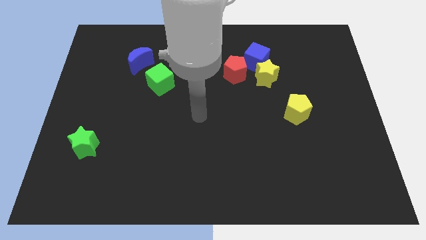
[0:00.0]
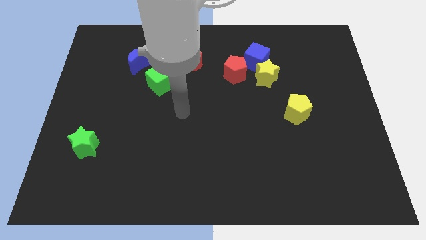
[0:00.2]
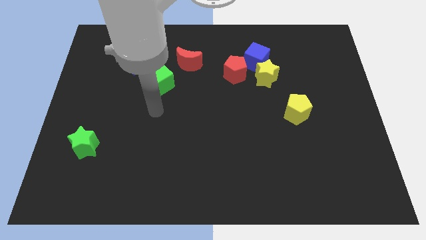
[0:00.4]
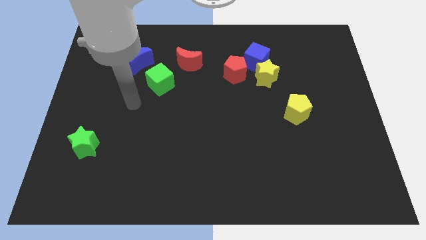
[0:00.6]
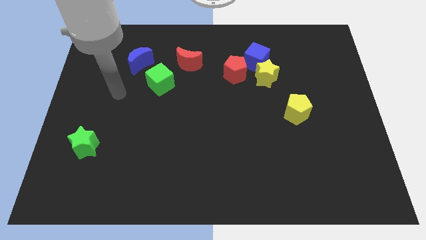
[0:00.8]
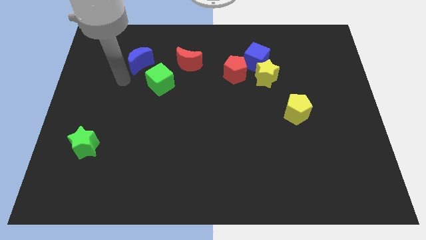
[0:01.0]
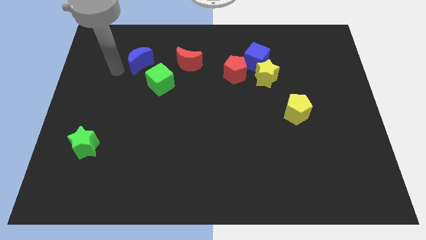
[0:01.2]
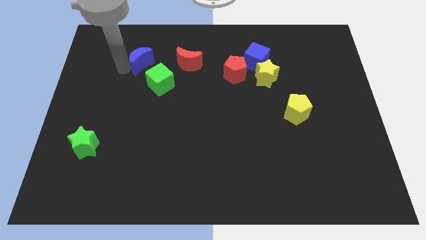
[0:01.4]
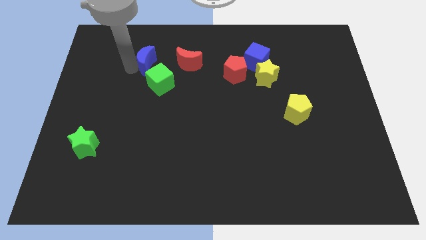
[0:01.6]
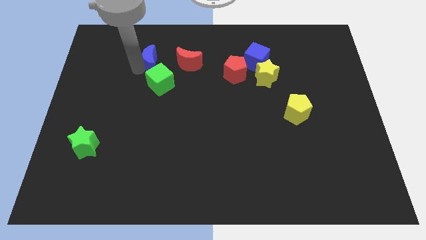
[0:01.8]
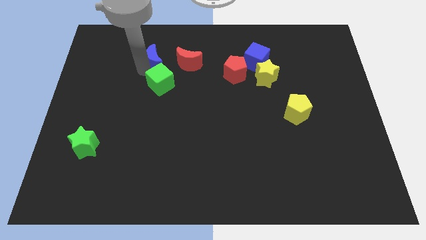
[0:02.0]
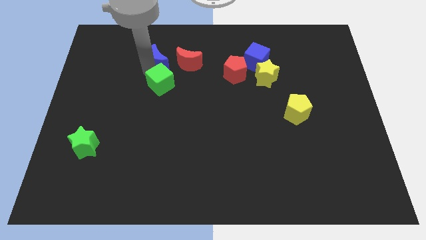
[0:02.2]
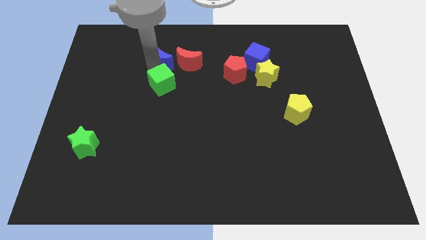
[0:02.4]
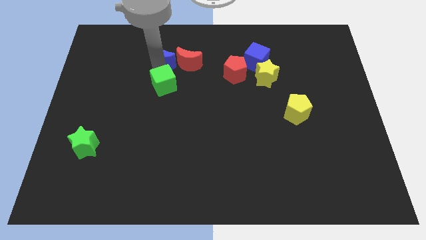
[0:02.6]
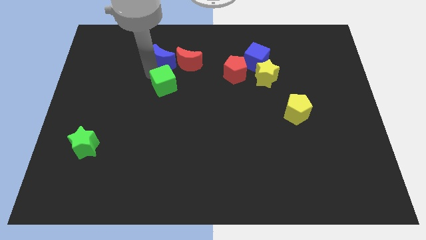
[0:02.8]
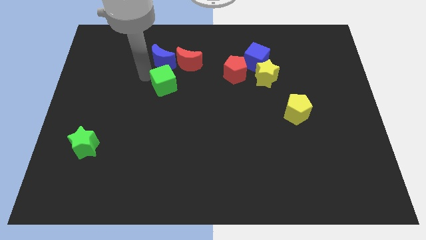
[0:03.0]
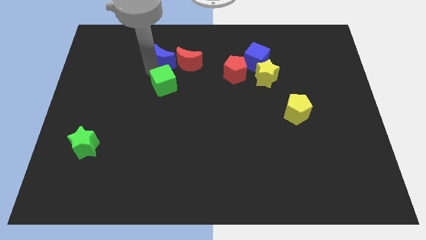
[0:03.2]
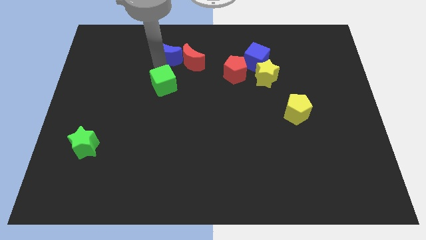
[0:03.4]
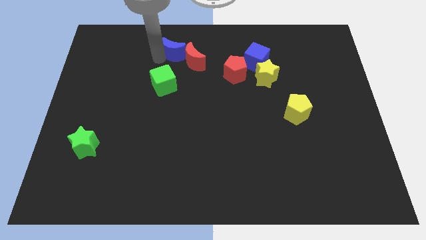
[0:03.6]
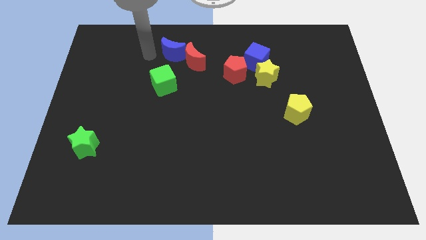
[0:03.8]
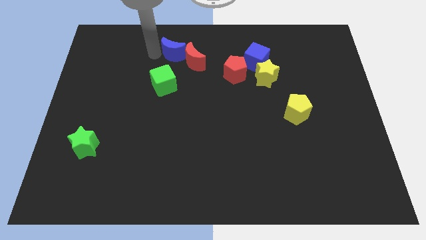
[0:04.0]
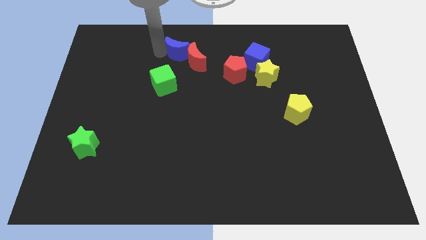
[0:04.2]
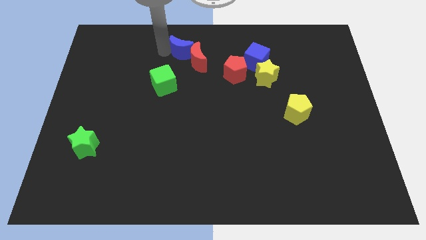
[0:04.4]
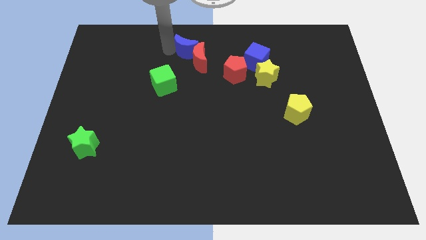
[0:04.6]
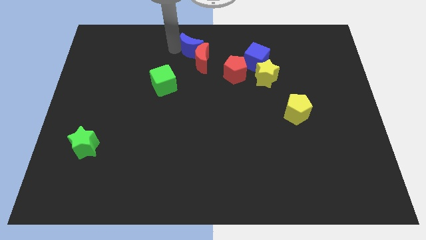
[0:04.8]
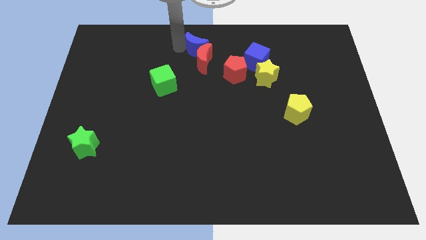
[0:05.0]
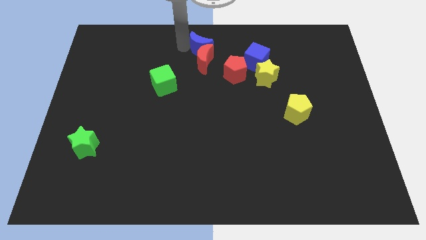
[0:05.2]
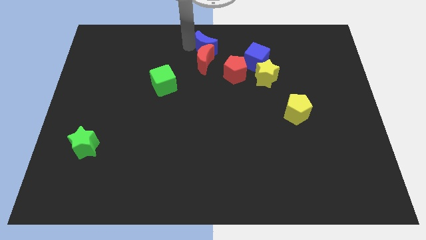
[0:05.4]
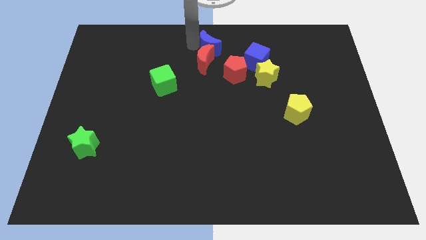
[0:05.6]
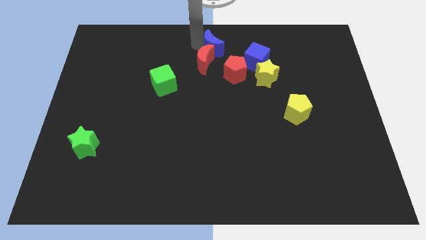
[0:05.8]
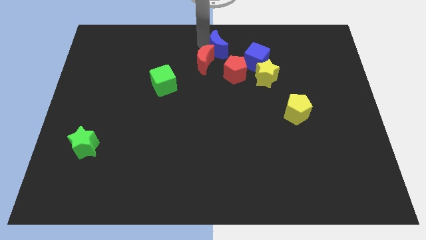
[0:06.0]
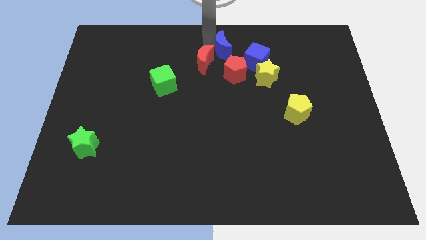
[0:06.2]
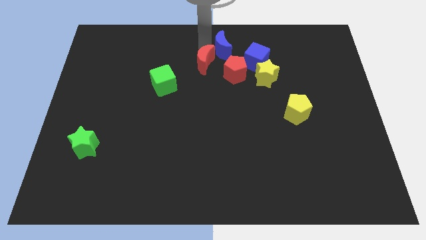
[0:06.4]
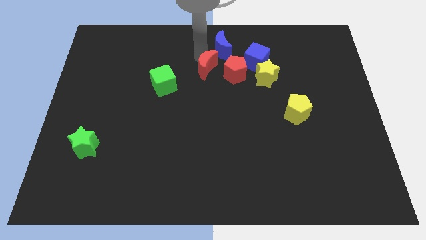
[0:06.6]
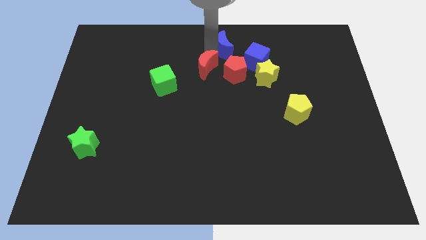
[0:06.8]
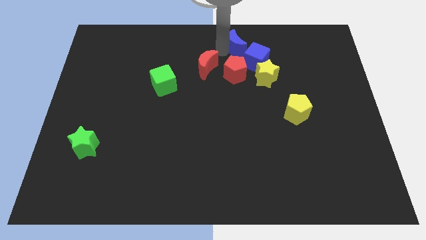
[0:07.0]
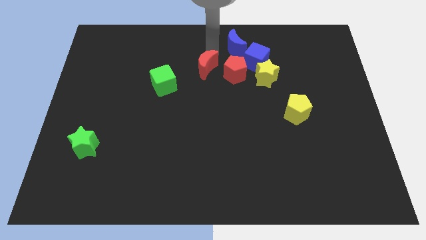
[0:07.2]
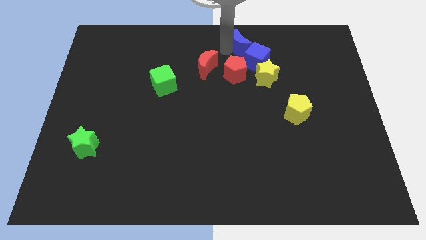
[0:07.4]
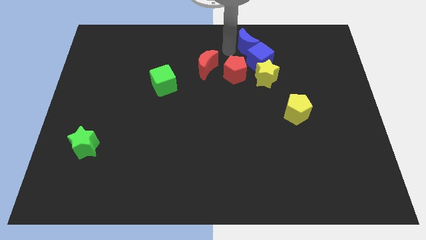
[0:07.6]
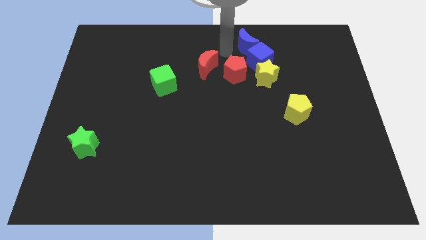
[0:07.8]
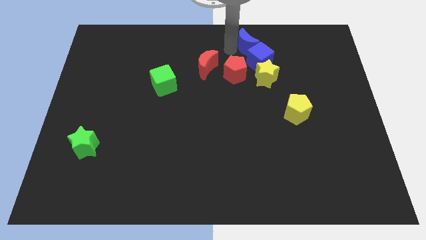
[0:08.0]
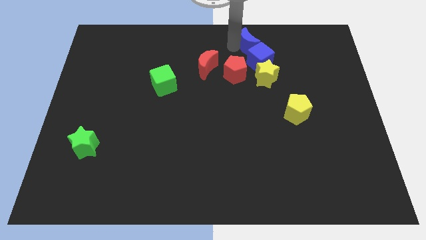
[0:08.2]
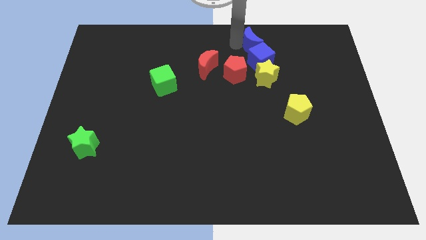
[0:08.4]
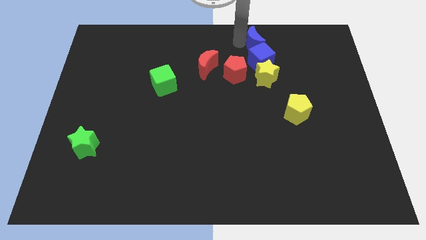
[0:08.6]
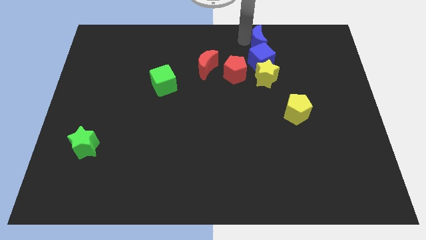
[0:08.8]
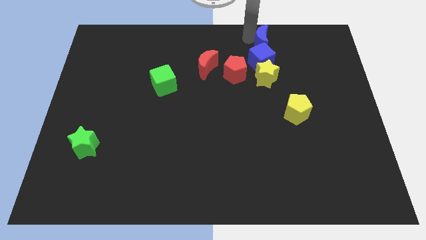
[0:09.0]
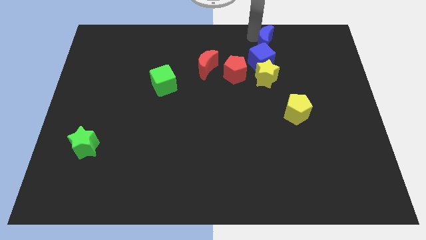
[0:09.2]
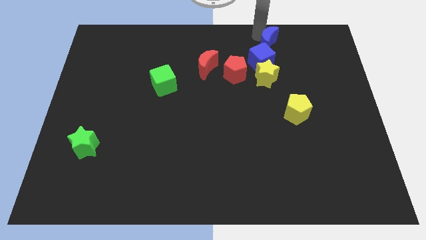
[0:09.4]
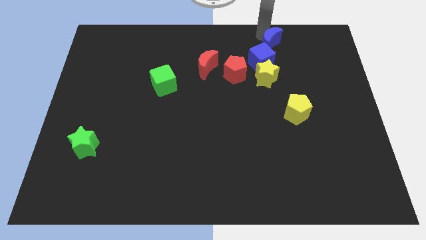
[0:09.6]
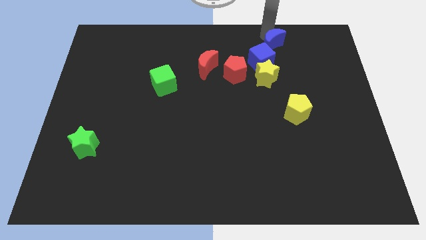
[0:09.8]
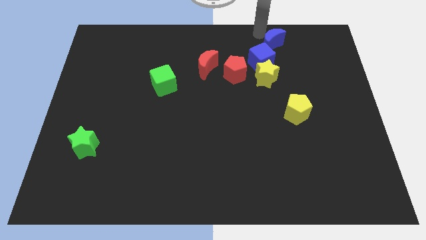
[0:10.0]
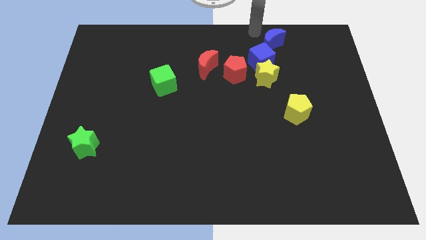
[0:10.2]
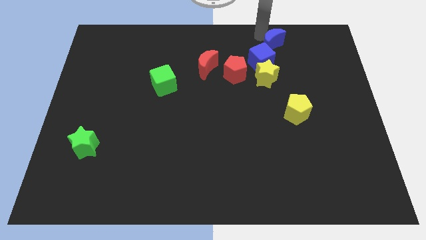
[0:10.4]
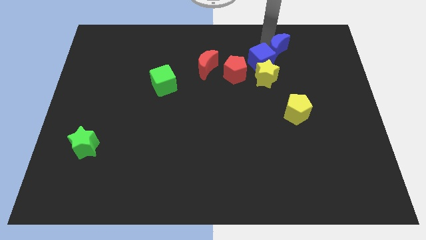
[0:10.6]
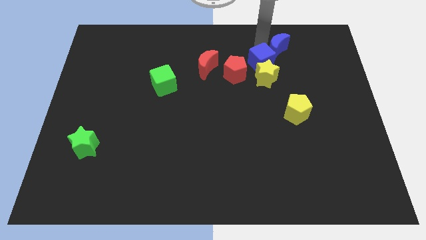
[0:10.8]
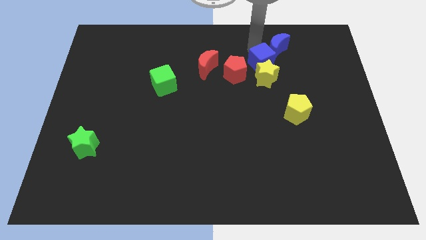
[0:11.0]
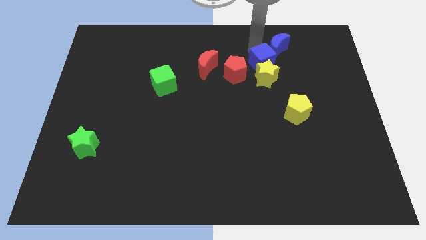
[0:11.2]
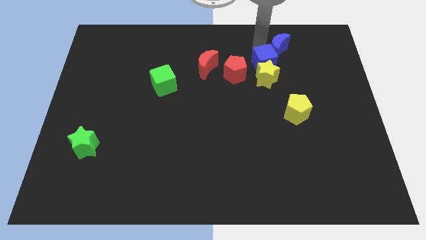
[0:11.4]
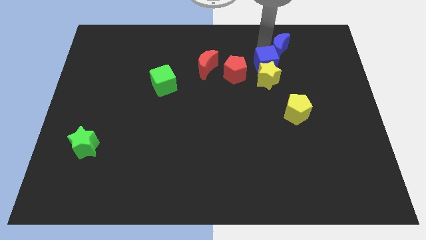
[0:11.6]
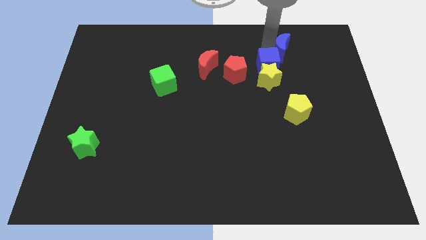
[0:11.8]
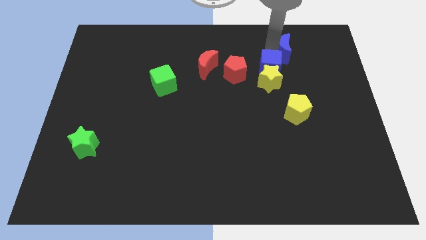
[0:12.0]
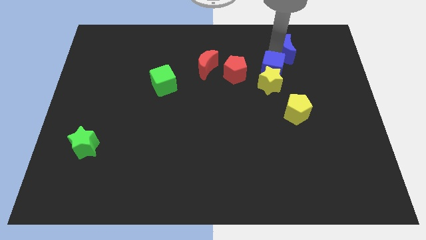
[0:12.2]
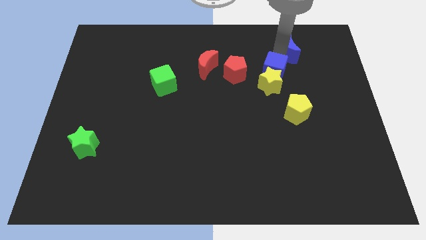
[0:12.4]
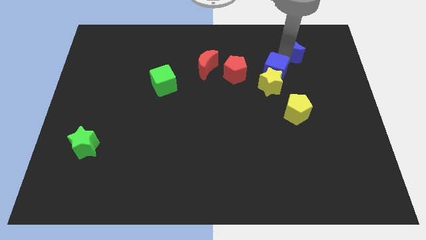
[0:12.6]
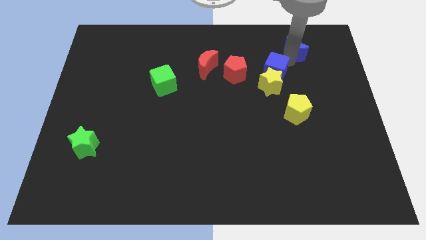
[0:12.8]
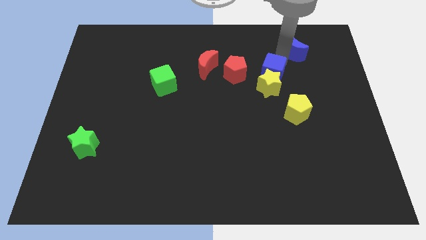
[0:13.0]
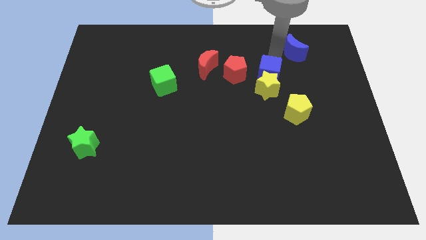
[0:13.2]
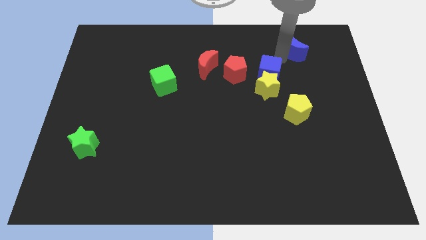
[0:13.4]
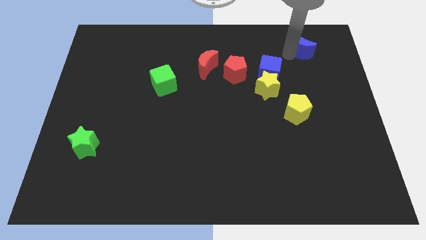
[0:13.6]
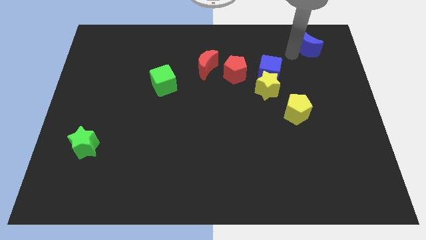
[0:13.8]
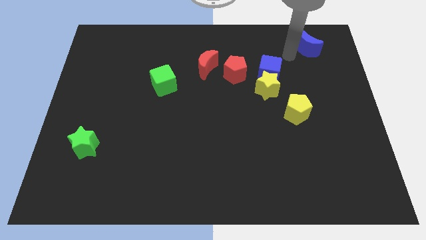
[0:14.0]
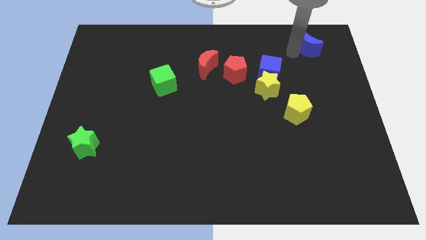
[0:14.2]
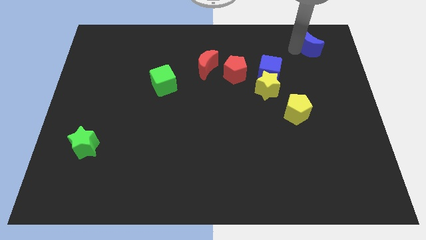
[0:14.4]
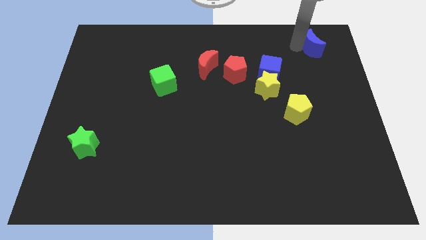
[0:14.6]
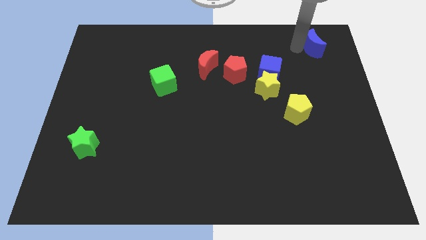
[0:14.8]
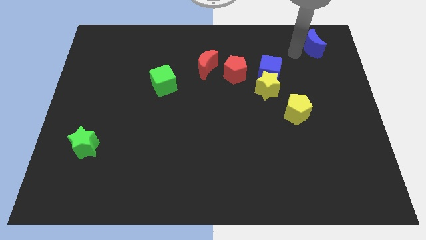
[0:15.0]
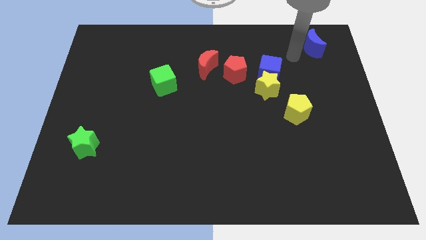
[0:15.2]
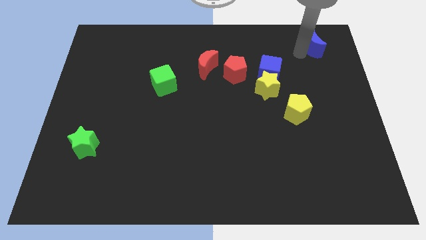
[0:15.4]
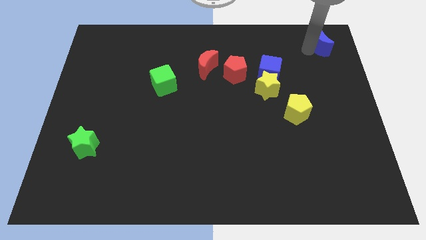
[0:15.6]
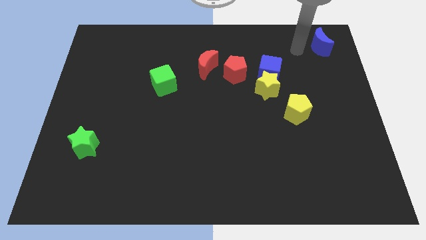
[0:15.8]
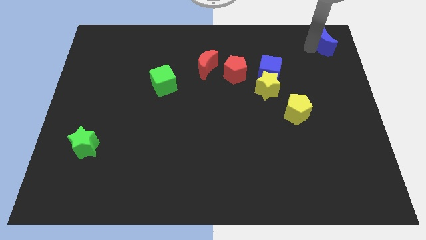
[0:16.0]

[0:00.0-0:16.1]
move the blue moon to the upper right corner
